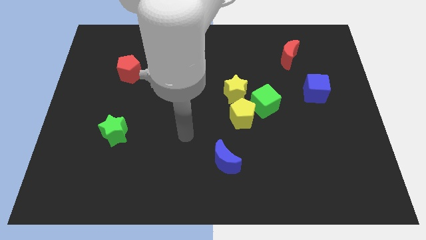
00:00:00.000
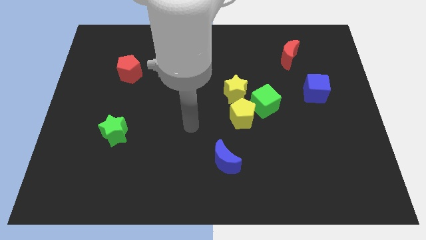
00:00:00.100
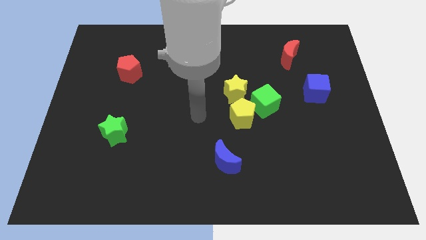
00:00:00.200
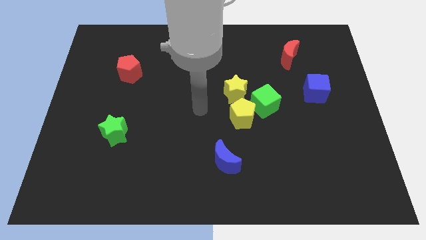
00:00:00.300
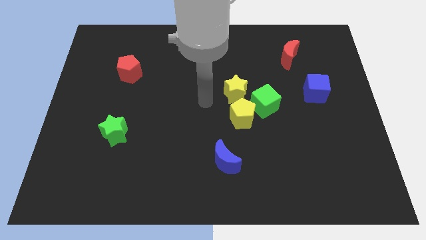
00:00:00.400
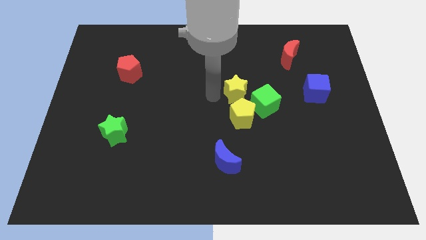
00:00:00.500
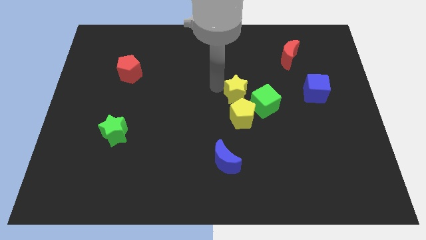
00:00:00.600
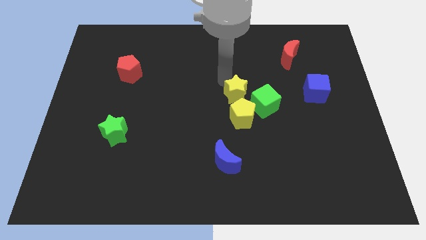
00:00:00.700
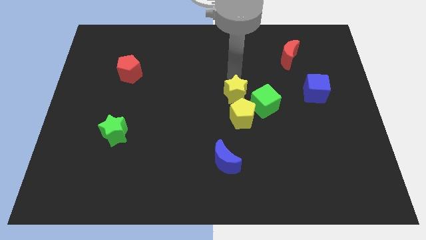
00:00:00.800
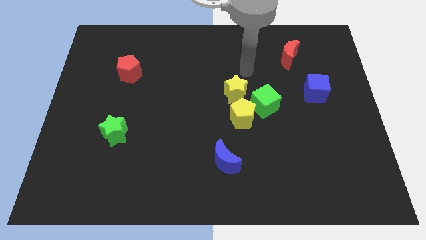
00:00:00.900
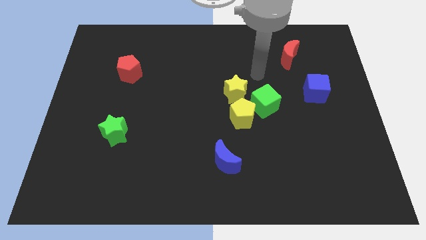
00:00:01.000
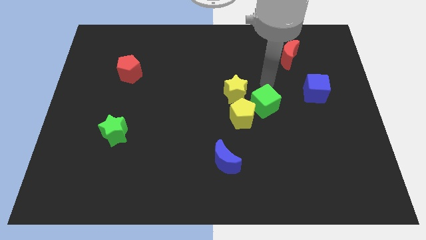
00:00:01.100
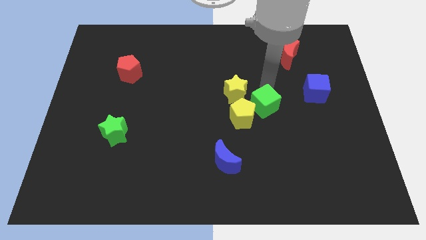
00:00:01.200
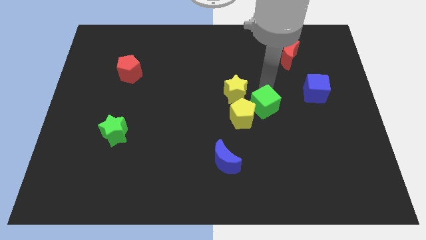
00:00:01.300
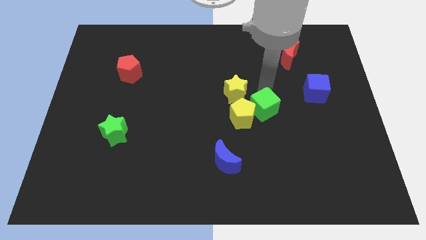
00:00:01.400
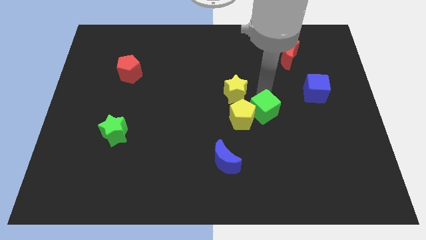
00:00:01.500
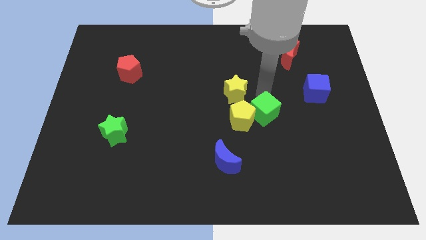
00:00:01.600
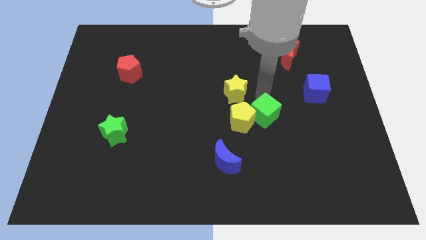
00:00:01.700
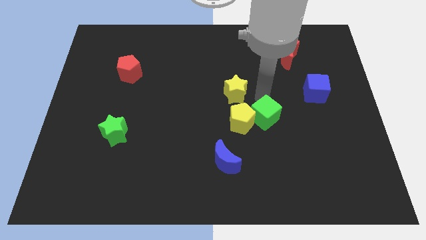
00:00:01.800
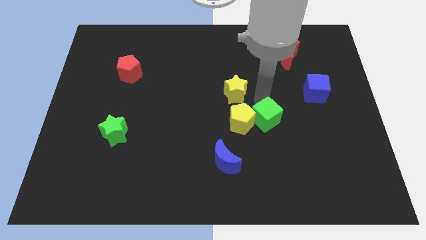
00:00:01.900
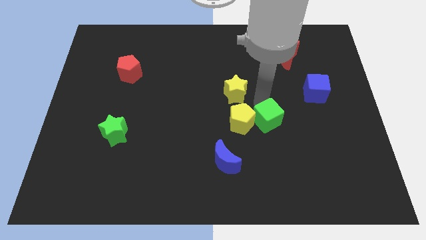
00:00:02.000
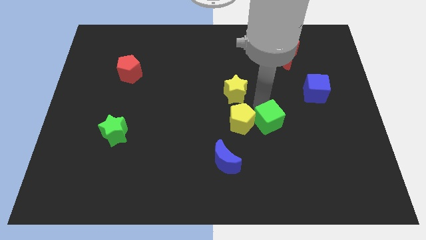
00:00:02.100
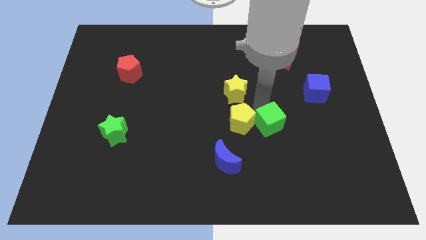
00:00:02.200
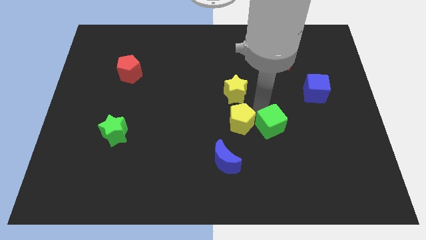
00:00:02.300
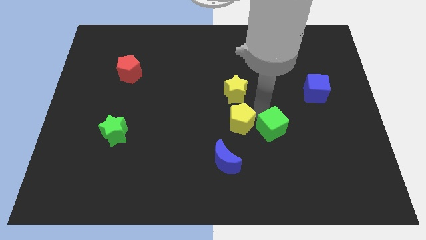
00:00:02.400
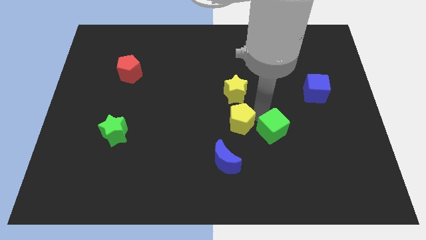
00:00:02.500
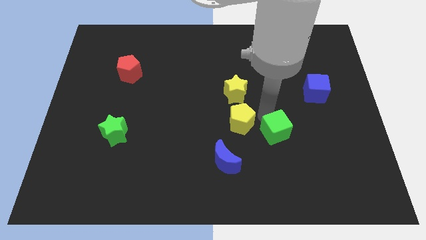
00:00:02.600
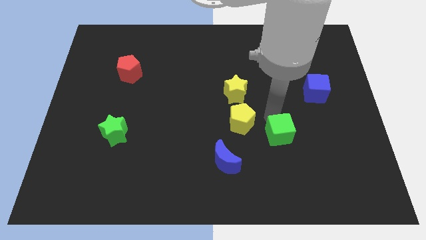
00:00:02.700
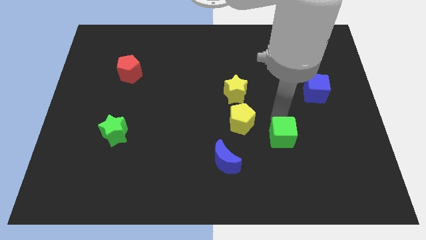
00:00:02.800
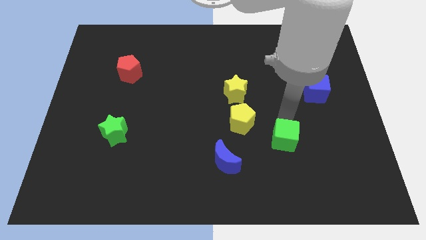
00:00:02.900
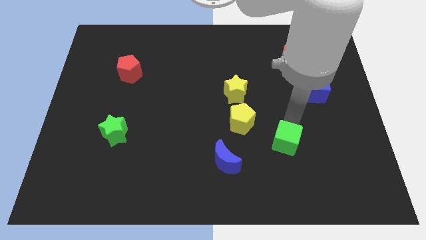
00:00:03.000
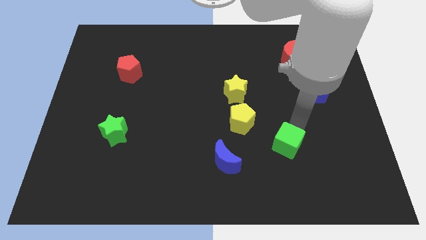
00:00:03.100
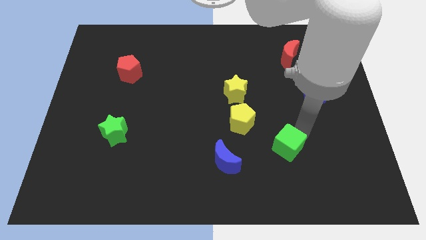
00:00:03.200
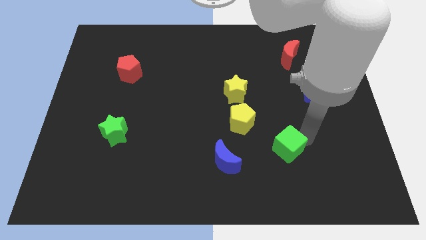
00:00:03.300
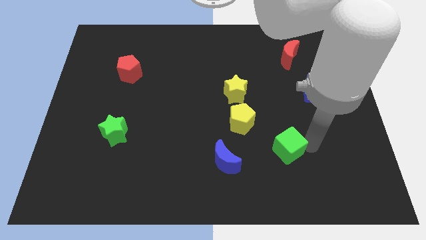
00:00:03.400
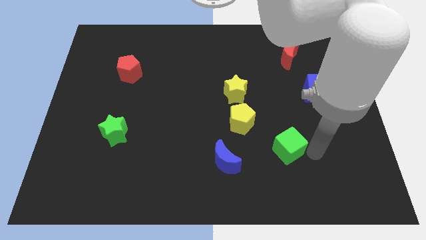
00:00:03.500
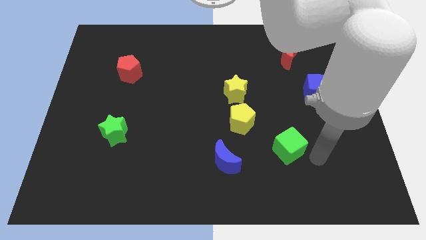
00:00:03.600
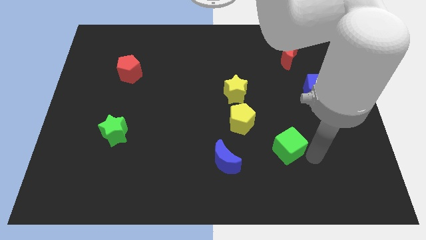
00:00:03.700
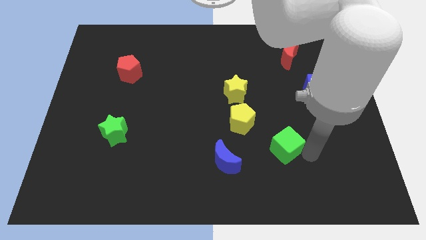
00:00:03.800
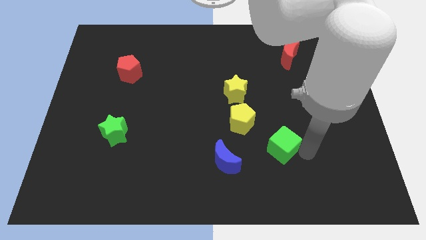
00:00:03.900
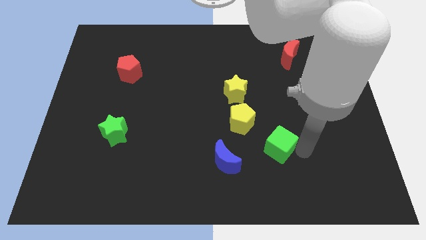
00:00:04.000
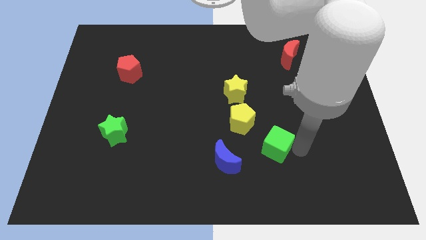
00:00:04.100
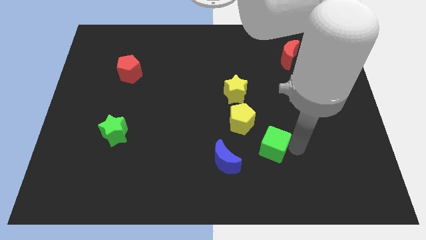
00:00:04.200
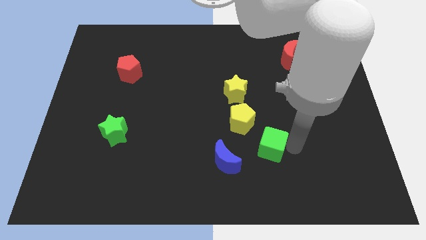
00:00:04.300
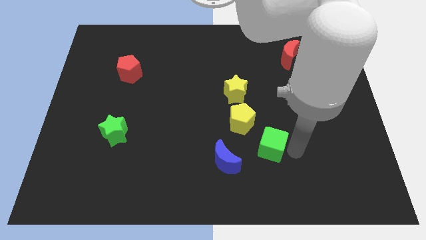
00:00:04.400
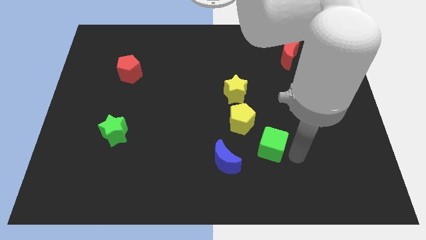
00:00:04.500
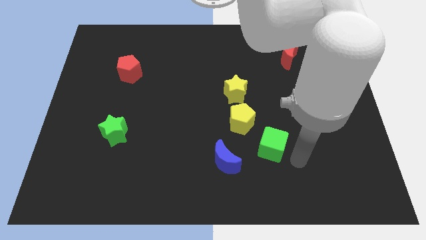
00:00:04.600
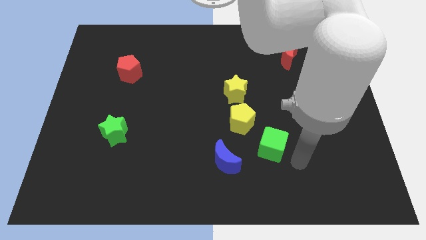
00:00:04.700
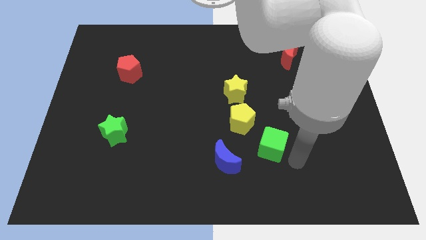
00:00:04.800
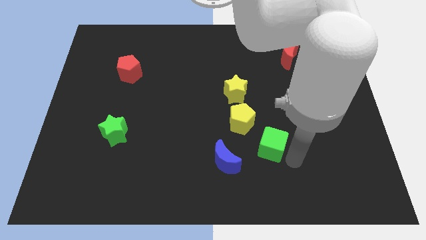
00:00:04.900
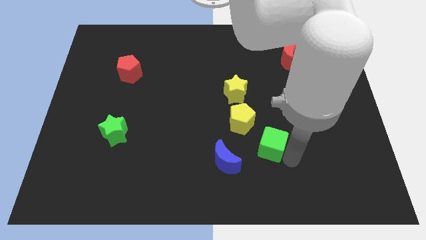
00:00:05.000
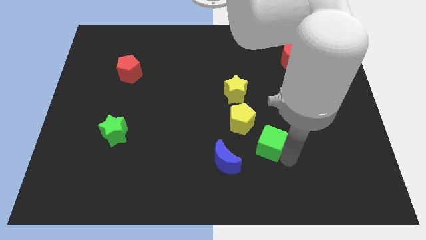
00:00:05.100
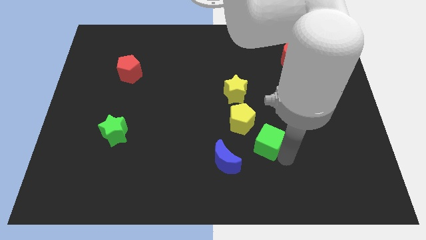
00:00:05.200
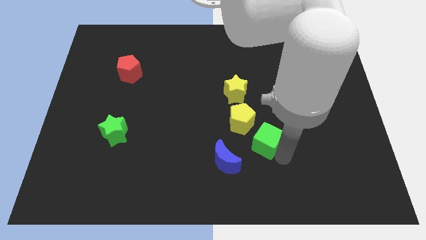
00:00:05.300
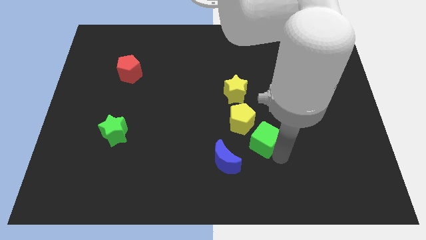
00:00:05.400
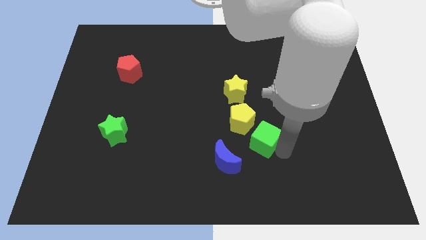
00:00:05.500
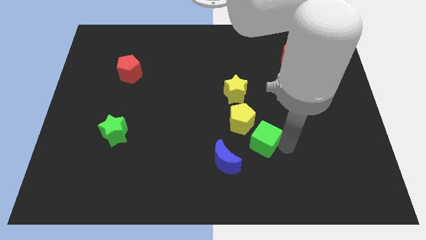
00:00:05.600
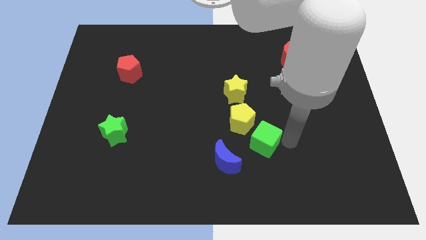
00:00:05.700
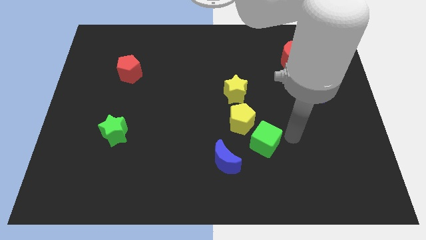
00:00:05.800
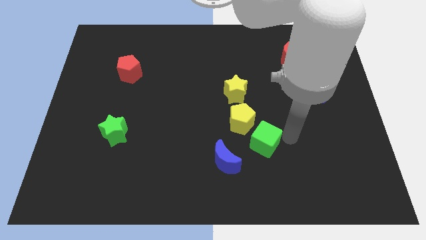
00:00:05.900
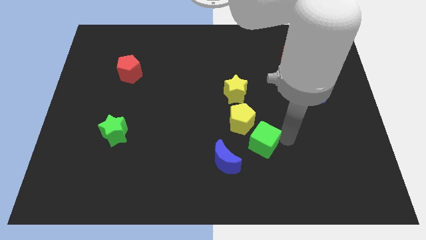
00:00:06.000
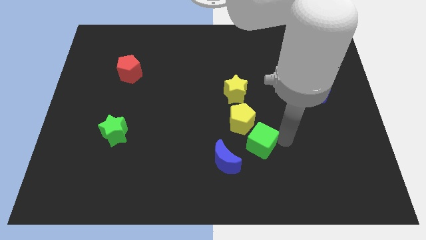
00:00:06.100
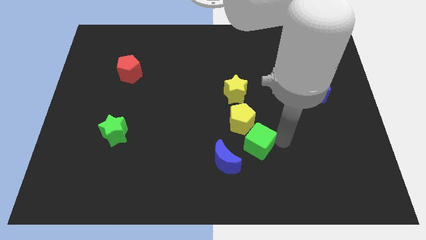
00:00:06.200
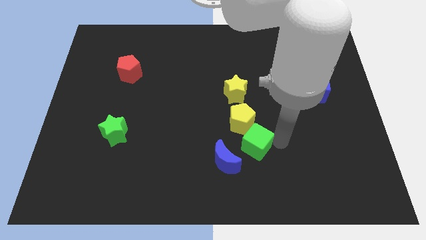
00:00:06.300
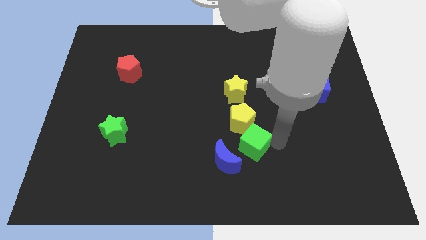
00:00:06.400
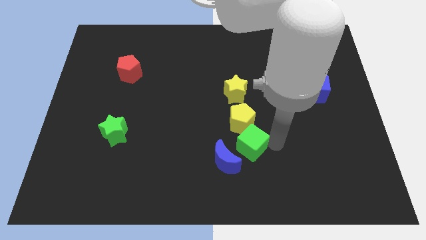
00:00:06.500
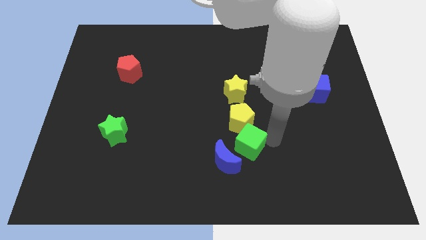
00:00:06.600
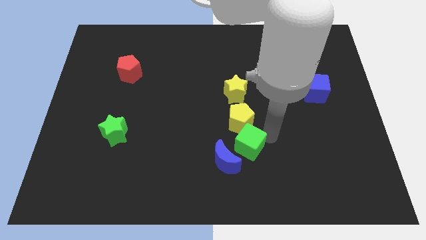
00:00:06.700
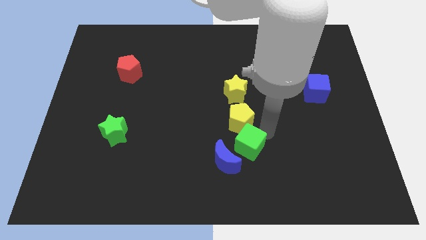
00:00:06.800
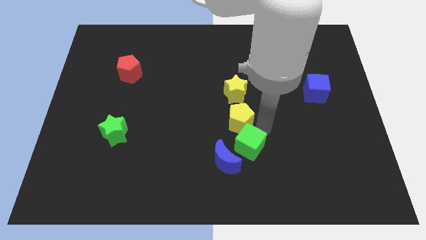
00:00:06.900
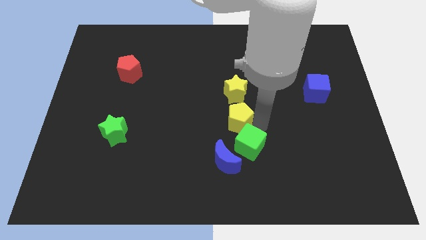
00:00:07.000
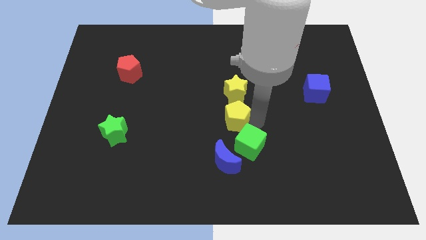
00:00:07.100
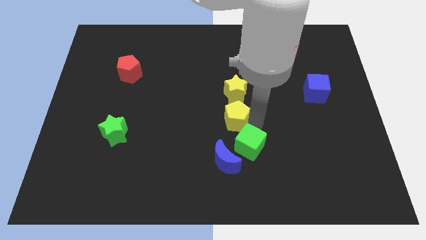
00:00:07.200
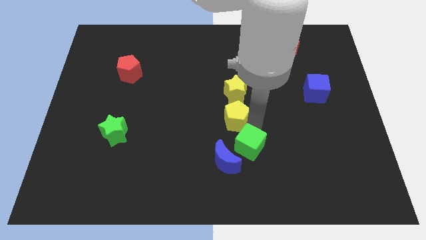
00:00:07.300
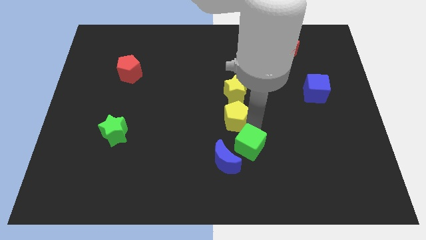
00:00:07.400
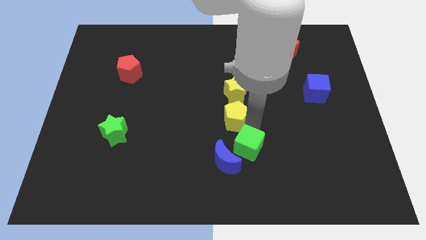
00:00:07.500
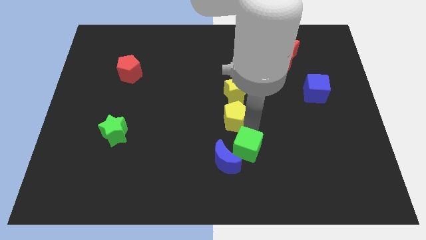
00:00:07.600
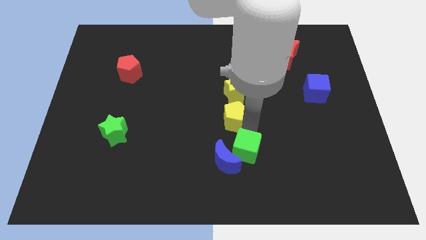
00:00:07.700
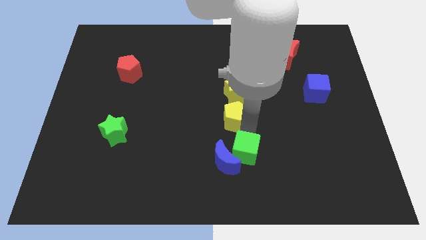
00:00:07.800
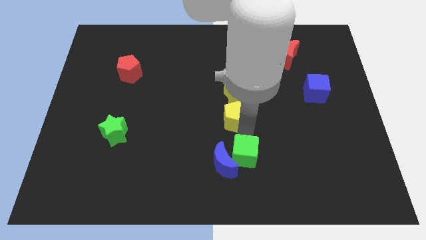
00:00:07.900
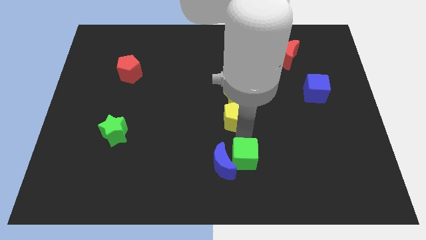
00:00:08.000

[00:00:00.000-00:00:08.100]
move the green cube to the bottom right of the blue moon
